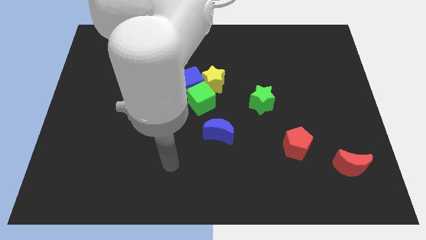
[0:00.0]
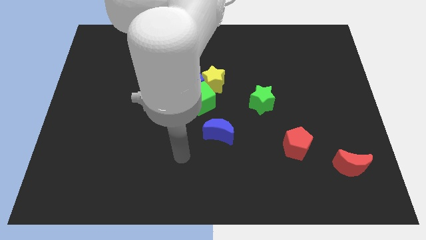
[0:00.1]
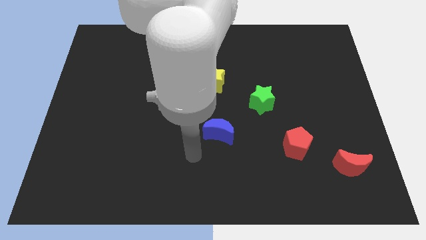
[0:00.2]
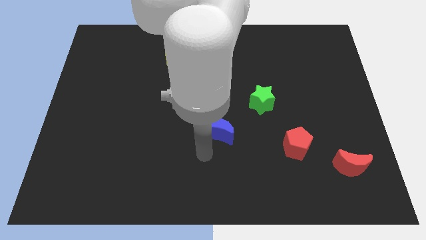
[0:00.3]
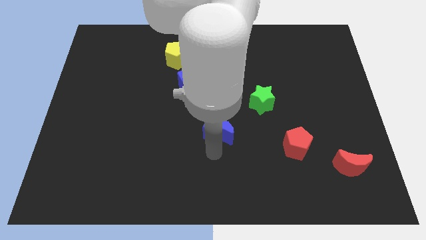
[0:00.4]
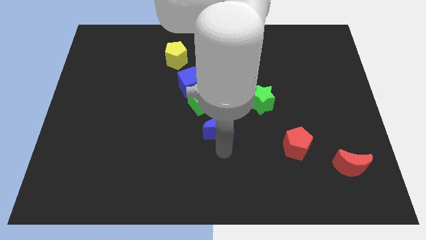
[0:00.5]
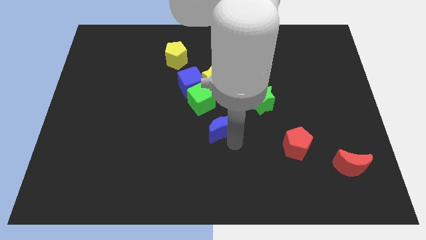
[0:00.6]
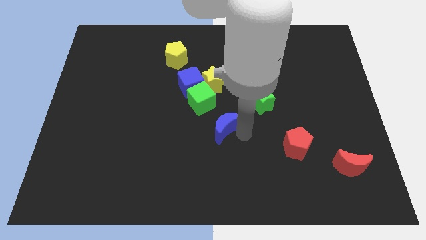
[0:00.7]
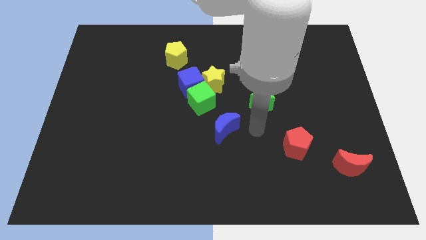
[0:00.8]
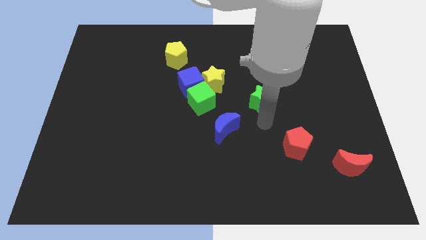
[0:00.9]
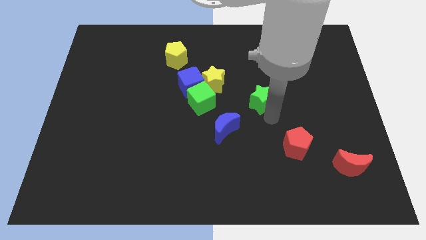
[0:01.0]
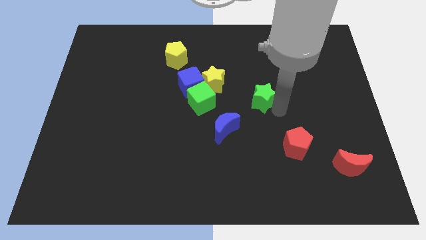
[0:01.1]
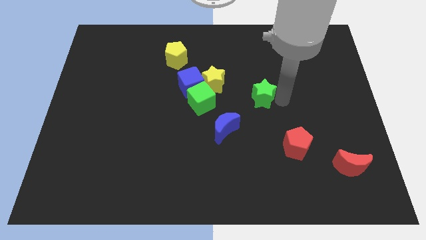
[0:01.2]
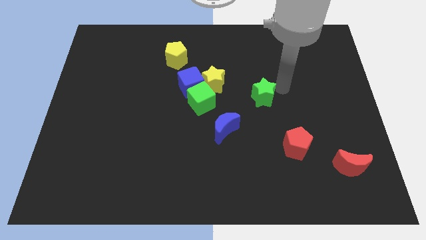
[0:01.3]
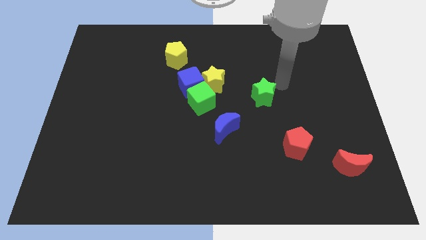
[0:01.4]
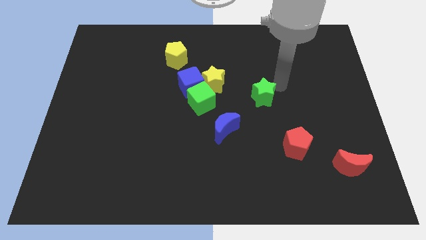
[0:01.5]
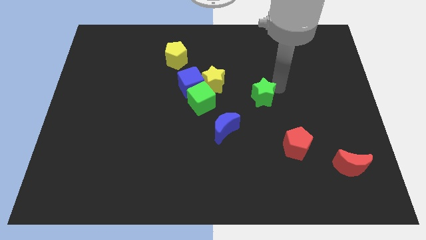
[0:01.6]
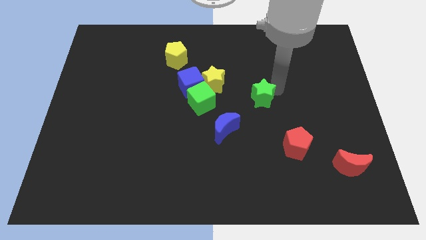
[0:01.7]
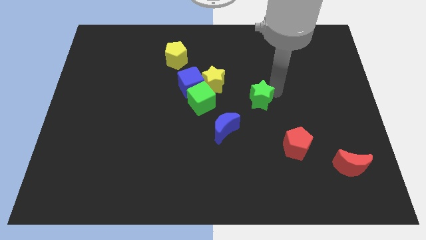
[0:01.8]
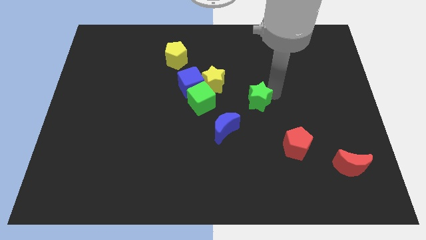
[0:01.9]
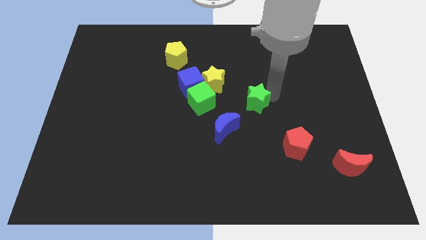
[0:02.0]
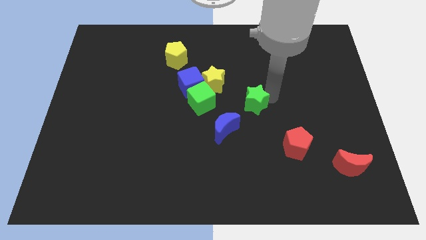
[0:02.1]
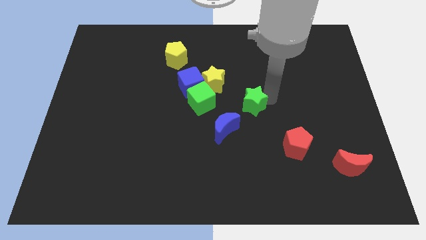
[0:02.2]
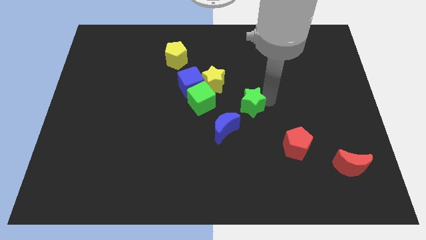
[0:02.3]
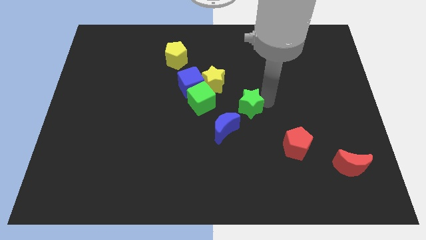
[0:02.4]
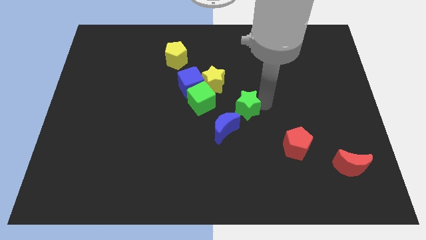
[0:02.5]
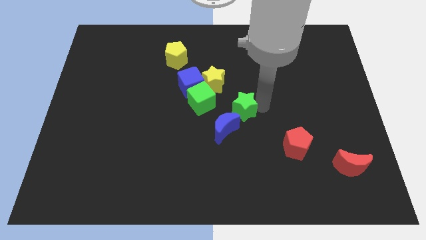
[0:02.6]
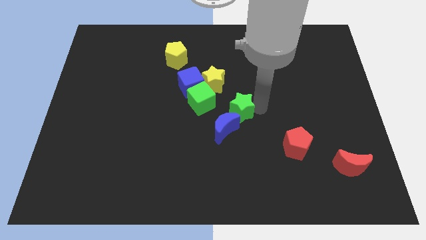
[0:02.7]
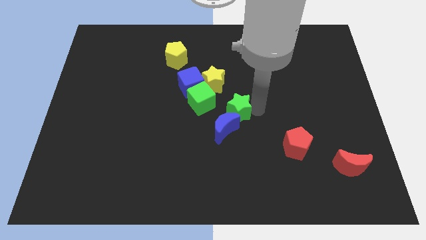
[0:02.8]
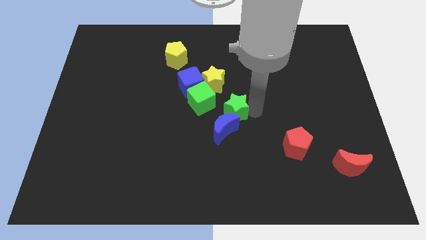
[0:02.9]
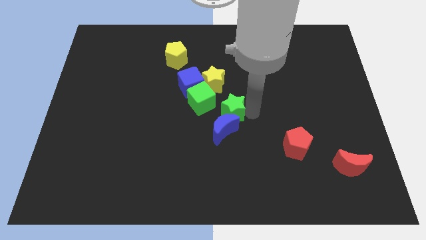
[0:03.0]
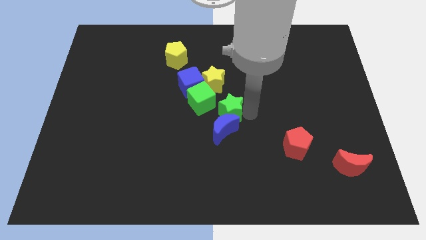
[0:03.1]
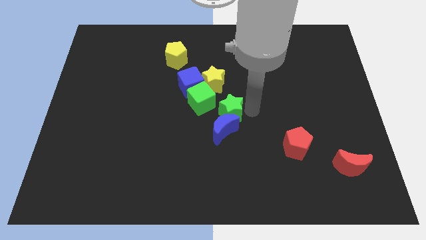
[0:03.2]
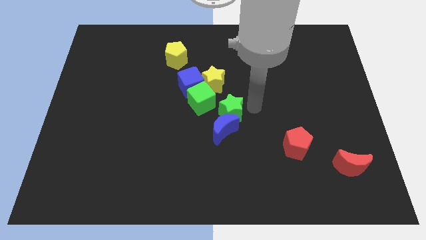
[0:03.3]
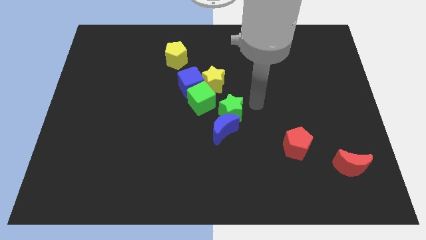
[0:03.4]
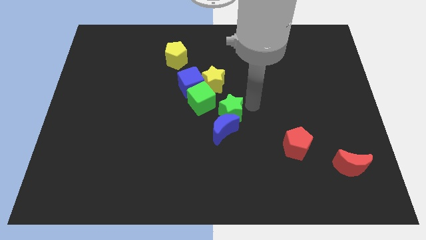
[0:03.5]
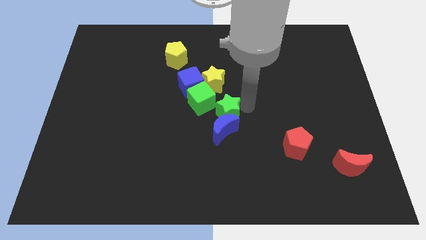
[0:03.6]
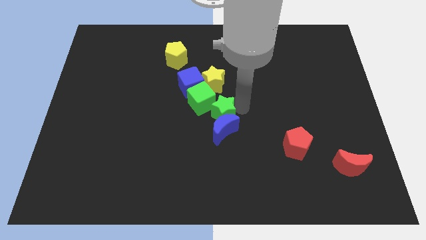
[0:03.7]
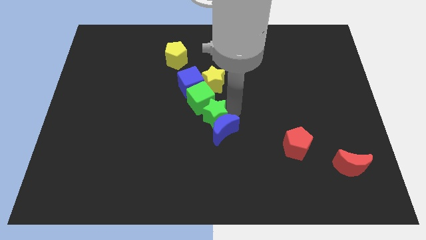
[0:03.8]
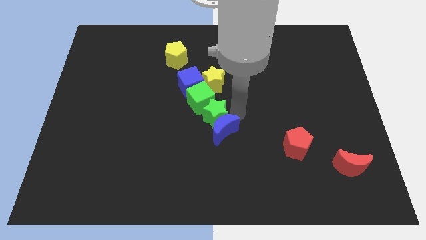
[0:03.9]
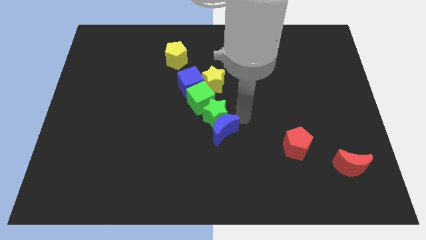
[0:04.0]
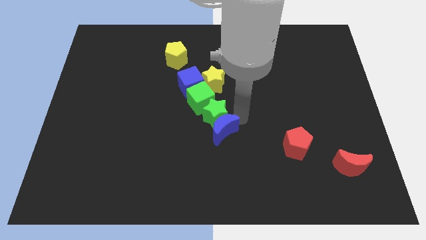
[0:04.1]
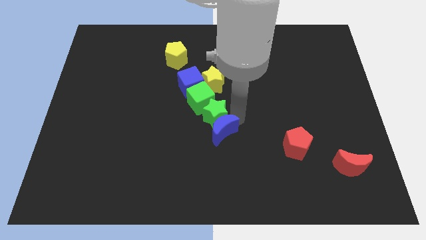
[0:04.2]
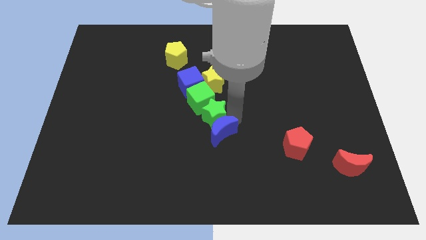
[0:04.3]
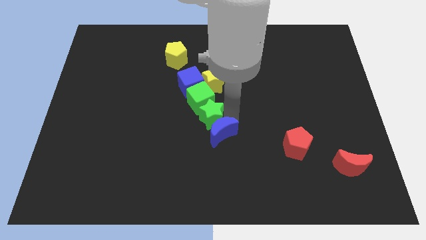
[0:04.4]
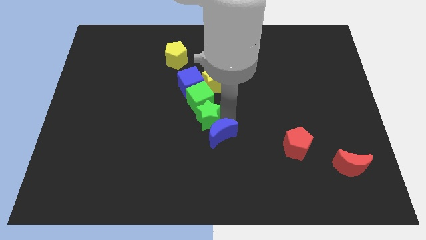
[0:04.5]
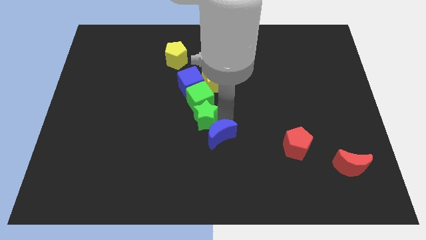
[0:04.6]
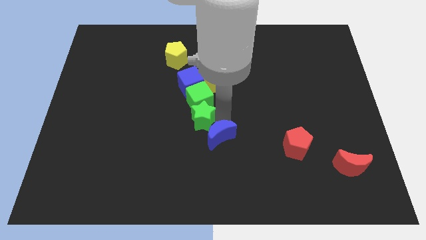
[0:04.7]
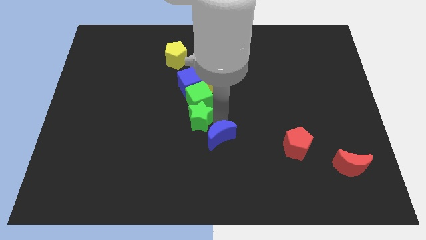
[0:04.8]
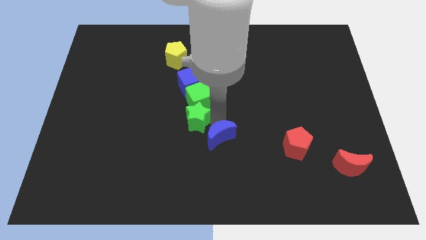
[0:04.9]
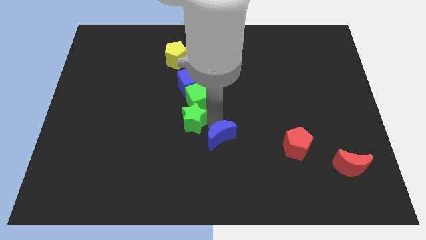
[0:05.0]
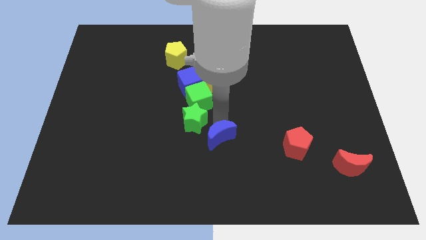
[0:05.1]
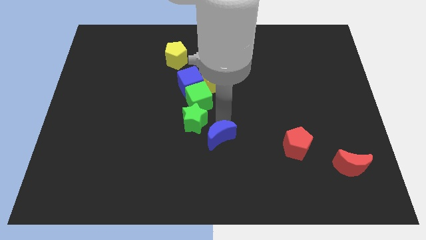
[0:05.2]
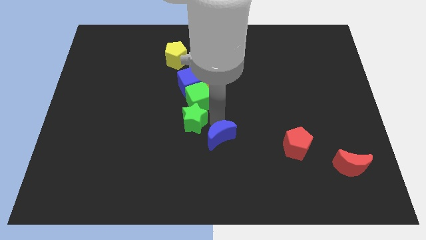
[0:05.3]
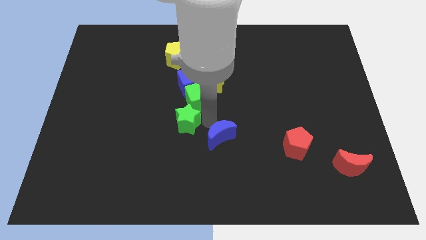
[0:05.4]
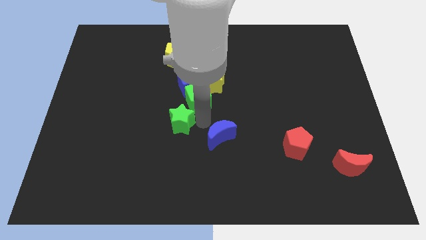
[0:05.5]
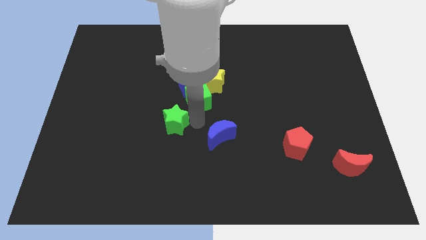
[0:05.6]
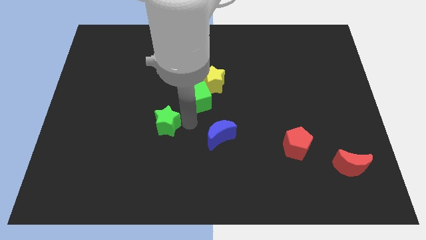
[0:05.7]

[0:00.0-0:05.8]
push the green star left

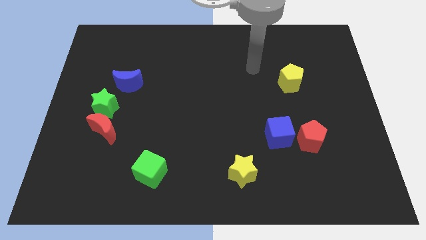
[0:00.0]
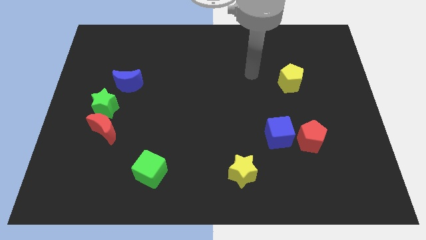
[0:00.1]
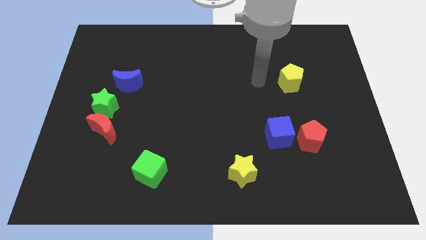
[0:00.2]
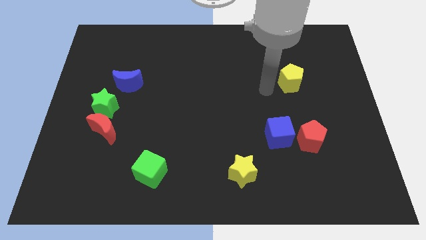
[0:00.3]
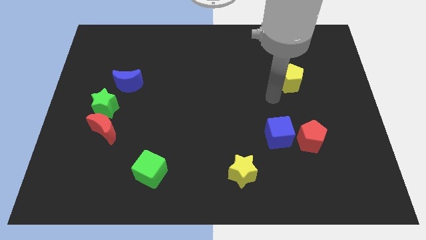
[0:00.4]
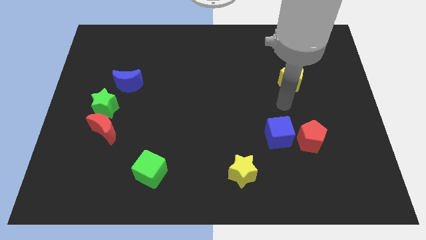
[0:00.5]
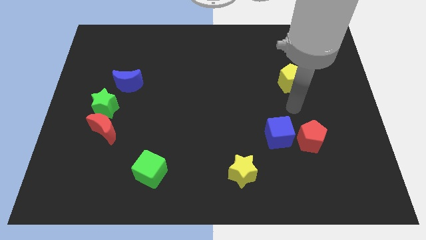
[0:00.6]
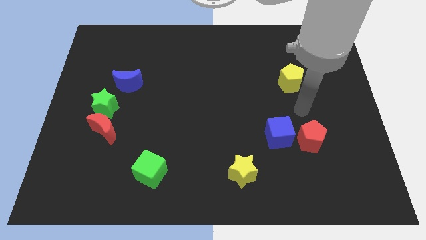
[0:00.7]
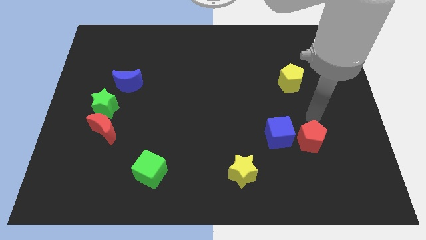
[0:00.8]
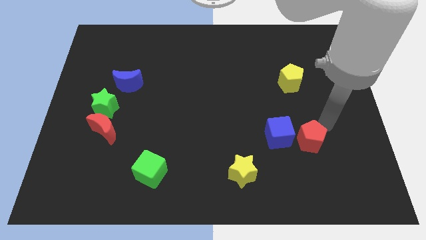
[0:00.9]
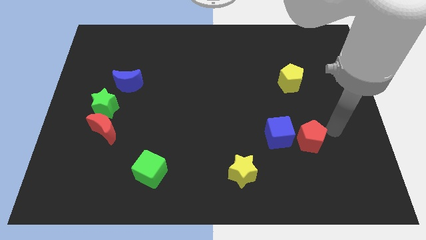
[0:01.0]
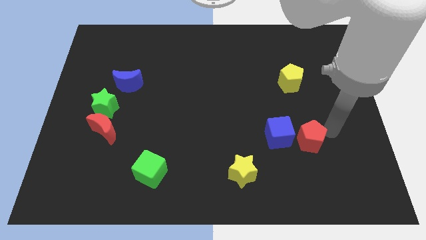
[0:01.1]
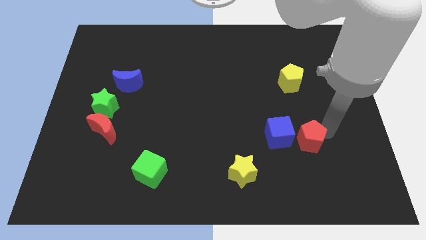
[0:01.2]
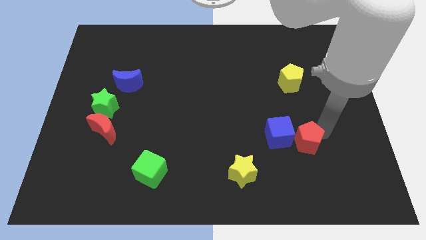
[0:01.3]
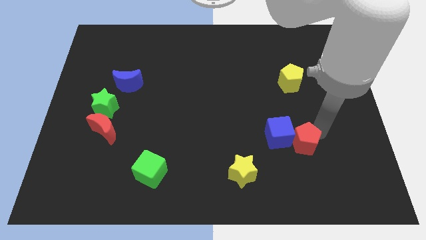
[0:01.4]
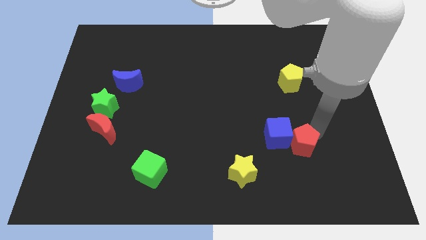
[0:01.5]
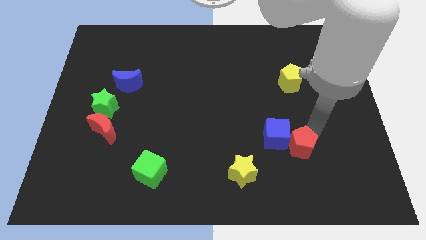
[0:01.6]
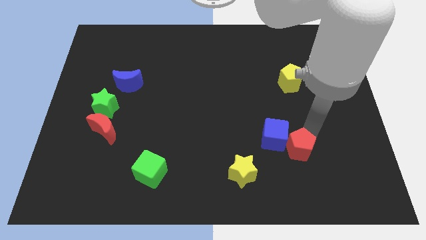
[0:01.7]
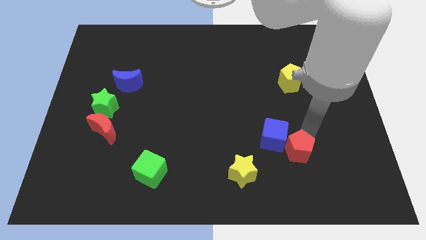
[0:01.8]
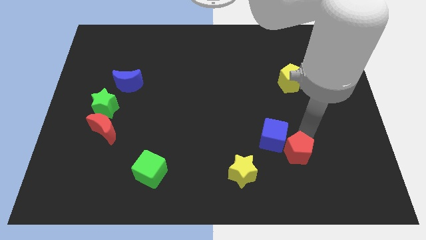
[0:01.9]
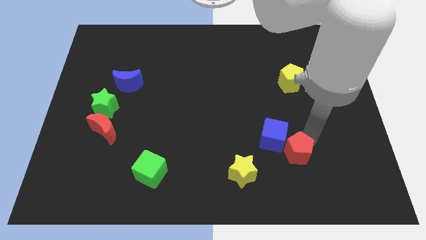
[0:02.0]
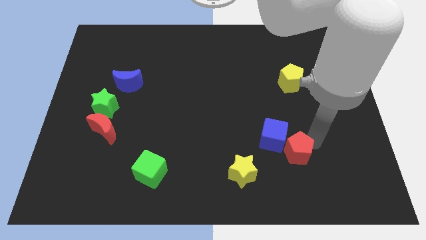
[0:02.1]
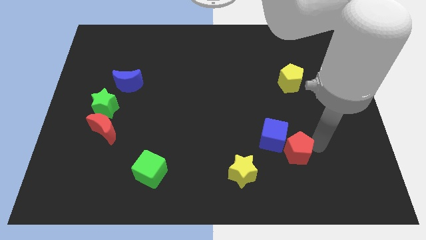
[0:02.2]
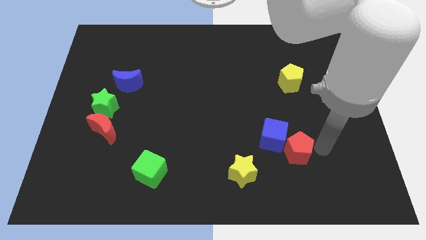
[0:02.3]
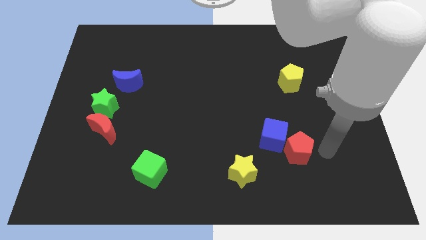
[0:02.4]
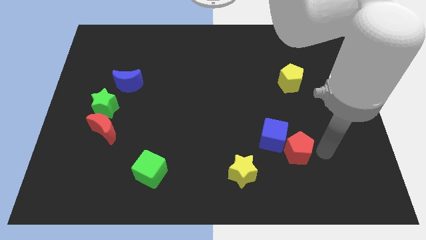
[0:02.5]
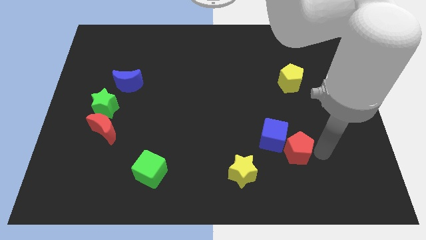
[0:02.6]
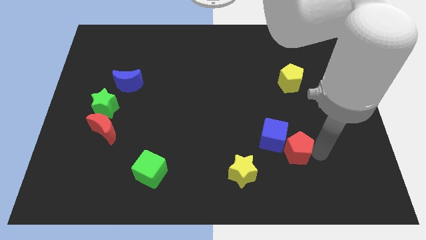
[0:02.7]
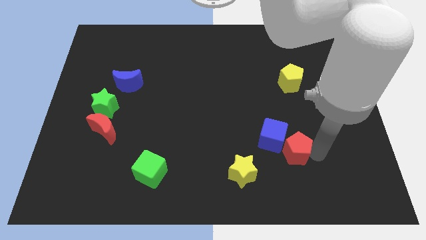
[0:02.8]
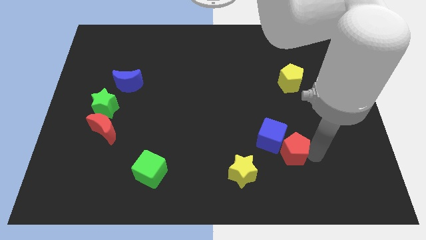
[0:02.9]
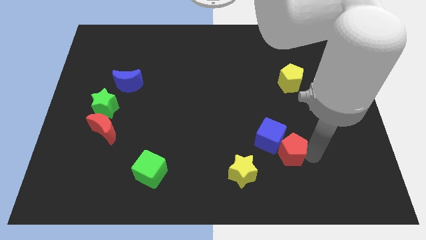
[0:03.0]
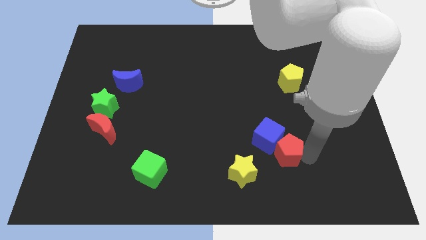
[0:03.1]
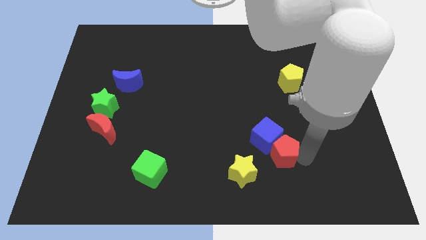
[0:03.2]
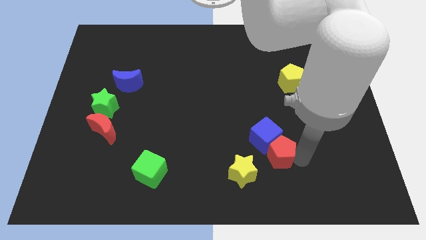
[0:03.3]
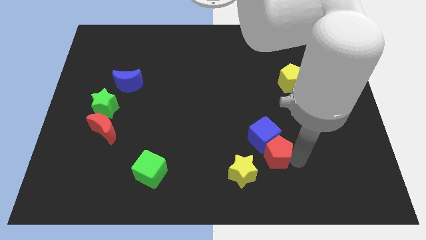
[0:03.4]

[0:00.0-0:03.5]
move the red pentagon left a little bit
